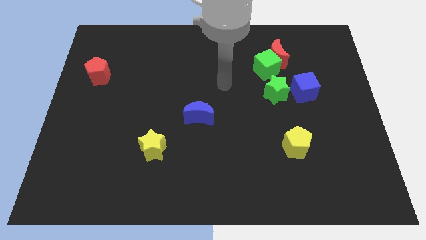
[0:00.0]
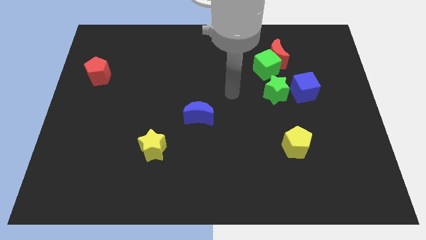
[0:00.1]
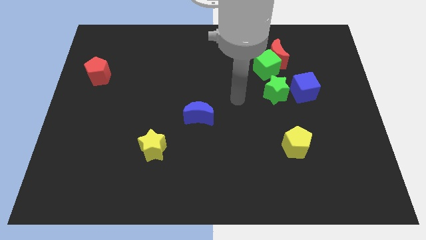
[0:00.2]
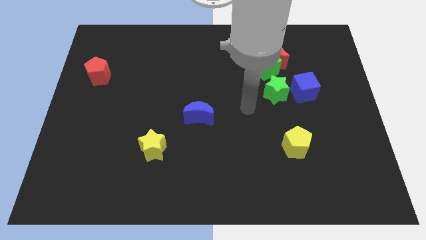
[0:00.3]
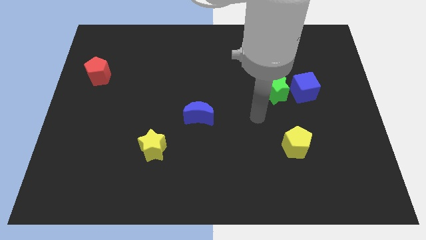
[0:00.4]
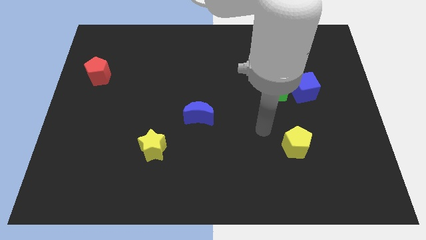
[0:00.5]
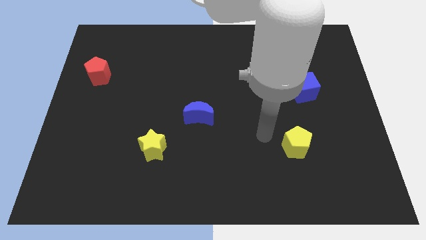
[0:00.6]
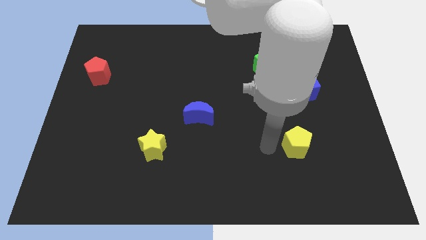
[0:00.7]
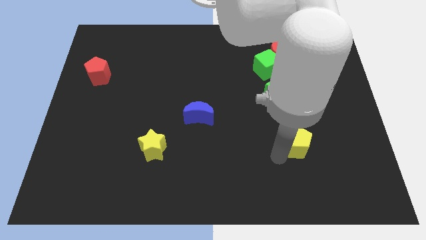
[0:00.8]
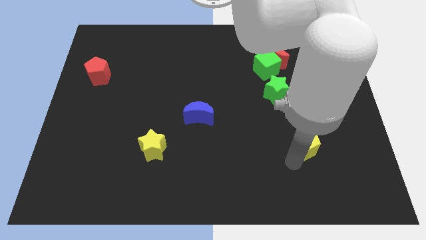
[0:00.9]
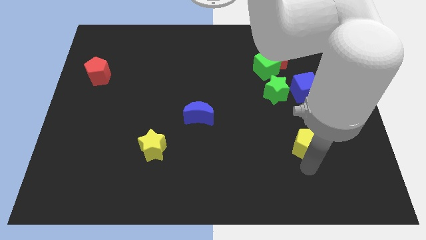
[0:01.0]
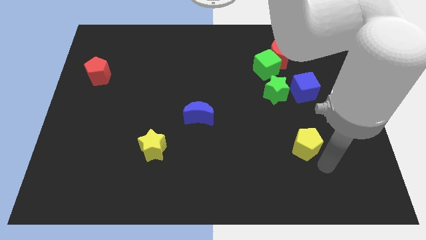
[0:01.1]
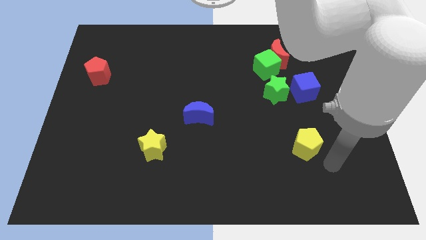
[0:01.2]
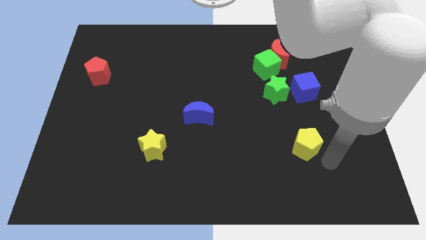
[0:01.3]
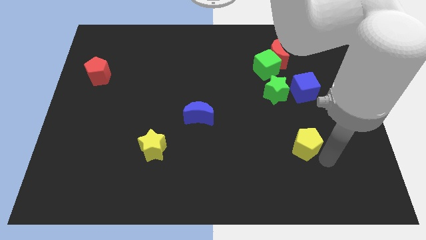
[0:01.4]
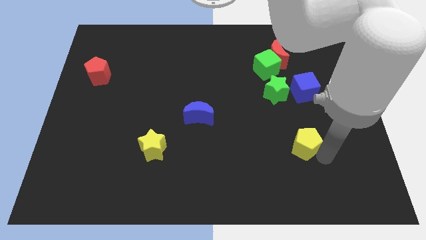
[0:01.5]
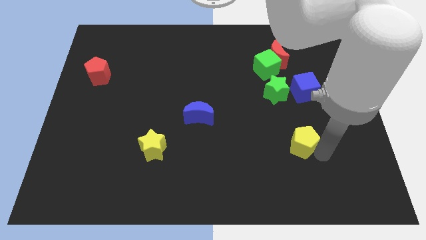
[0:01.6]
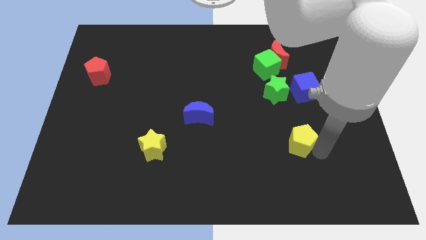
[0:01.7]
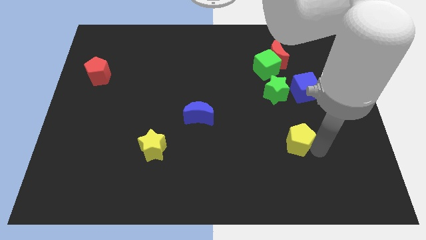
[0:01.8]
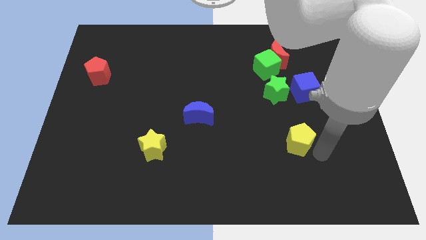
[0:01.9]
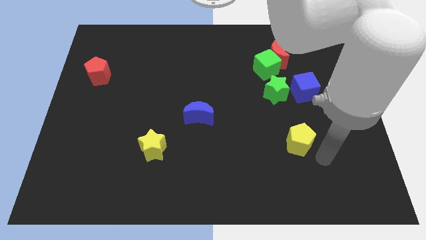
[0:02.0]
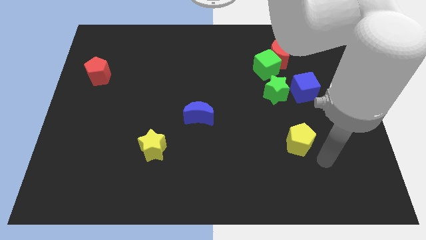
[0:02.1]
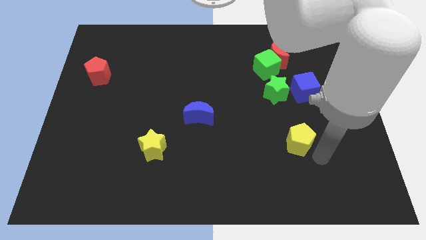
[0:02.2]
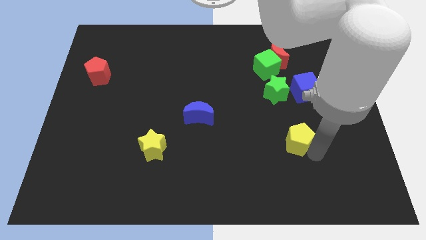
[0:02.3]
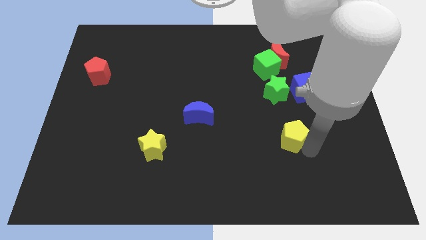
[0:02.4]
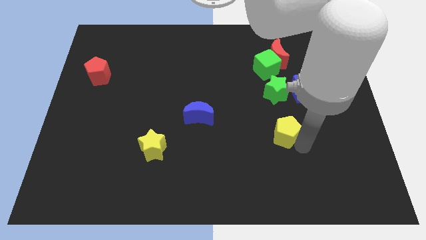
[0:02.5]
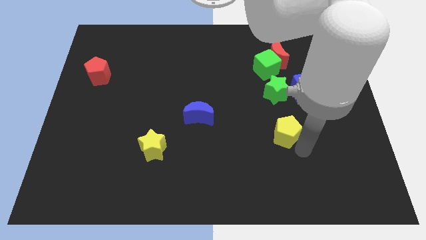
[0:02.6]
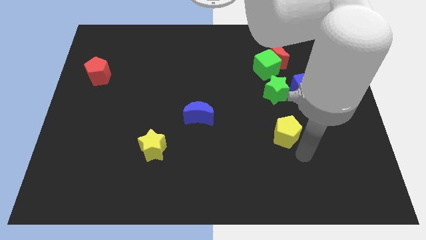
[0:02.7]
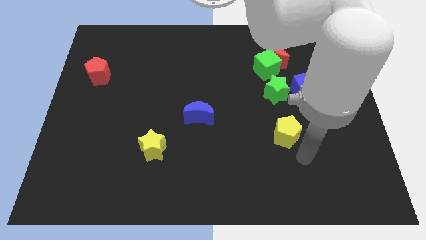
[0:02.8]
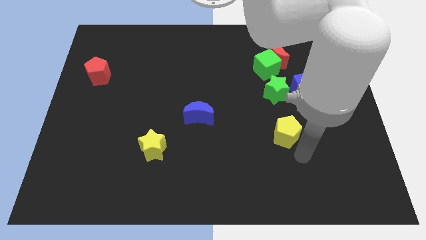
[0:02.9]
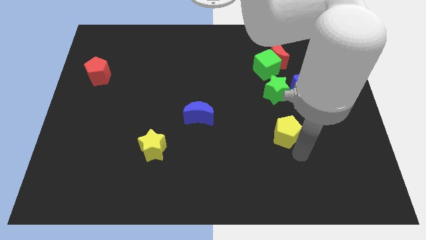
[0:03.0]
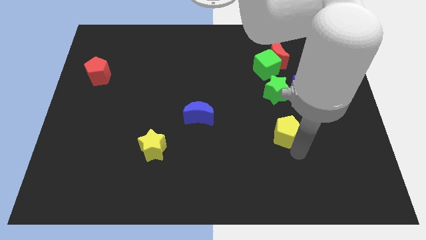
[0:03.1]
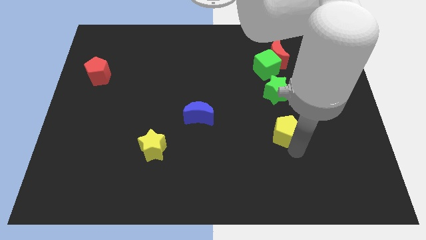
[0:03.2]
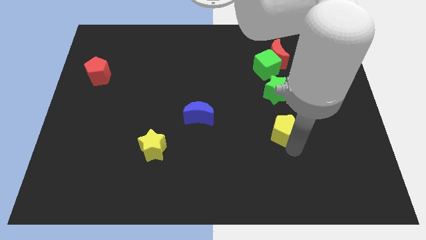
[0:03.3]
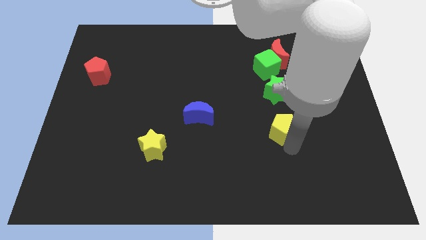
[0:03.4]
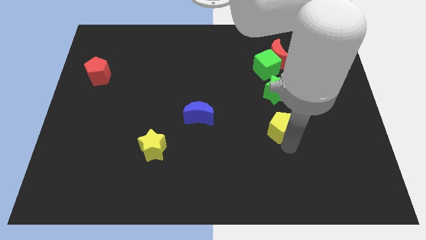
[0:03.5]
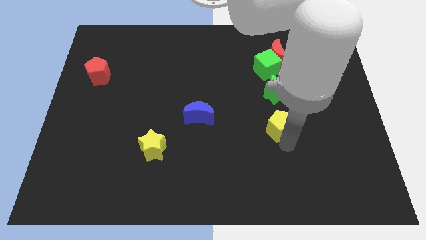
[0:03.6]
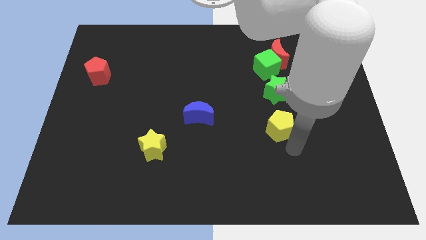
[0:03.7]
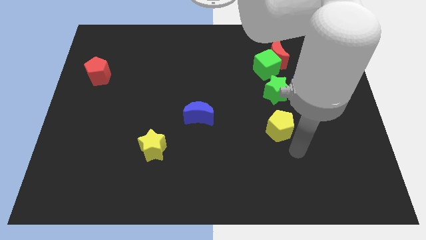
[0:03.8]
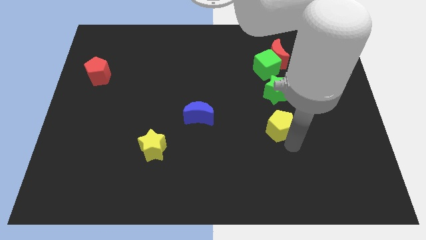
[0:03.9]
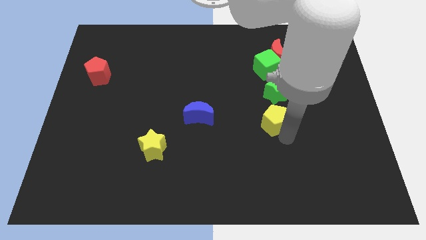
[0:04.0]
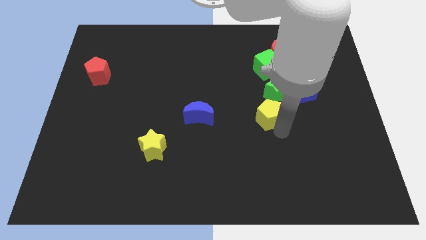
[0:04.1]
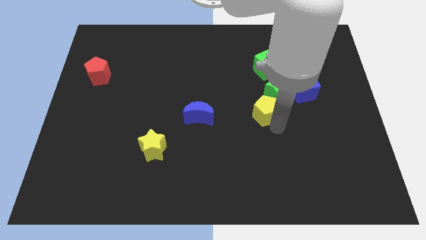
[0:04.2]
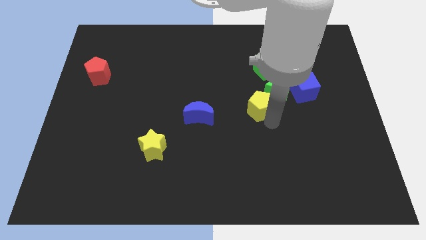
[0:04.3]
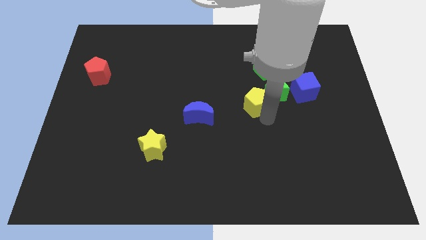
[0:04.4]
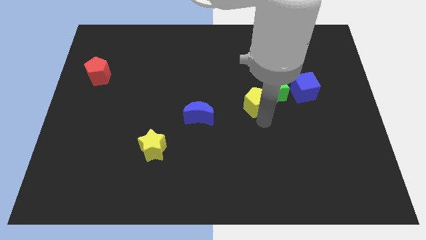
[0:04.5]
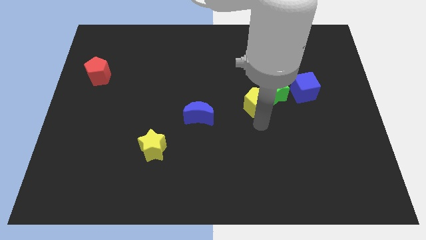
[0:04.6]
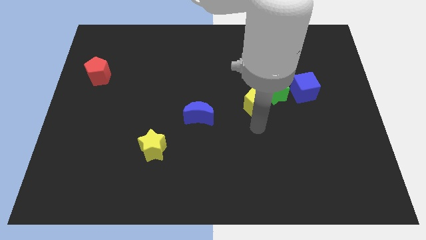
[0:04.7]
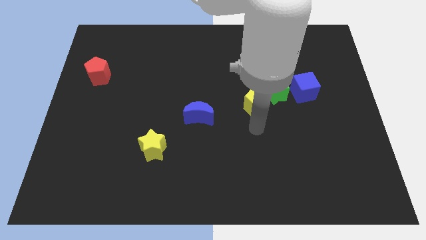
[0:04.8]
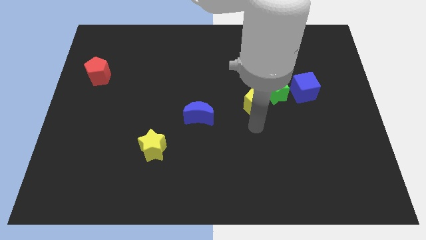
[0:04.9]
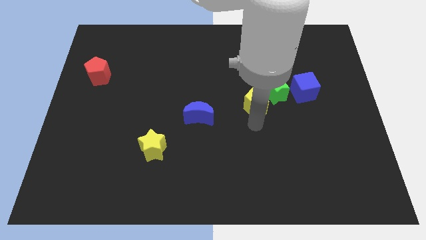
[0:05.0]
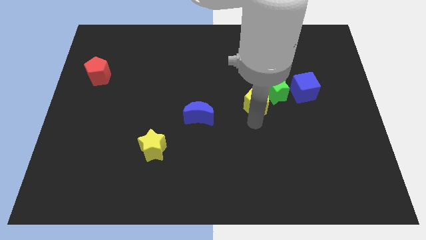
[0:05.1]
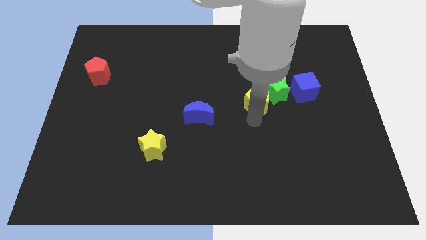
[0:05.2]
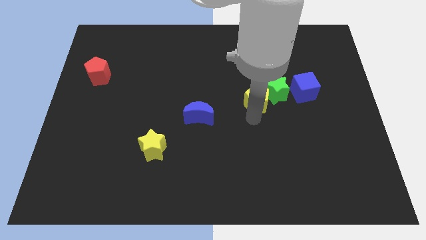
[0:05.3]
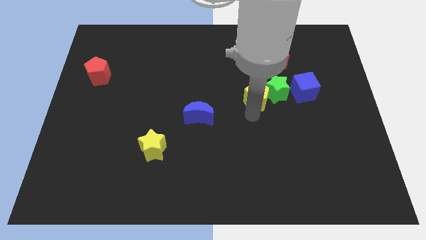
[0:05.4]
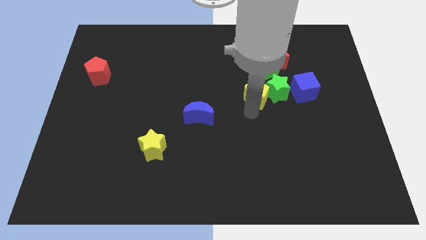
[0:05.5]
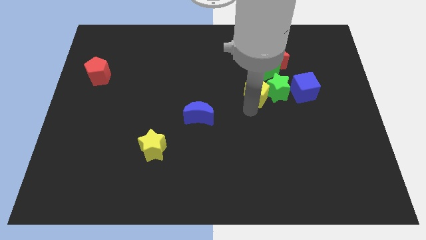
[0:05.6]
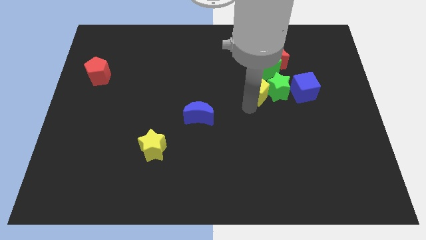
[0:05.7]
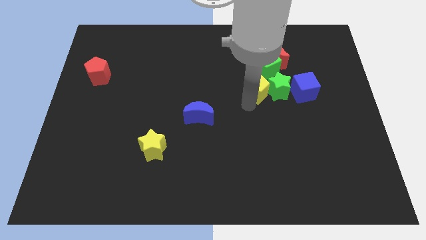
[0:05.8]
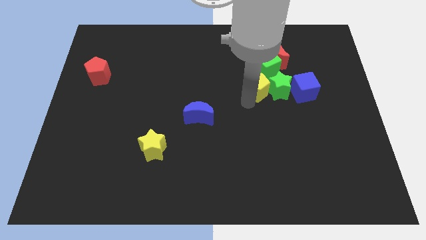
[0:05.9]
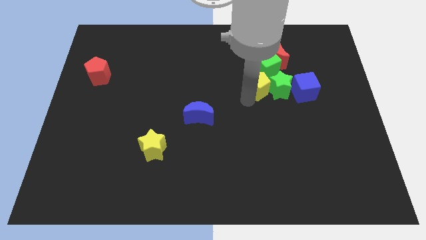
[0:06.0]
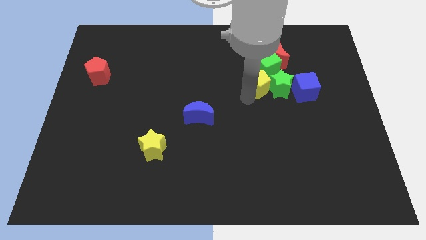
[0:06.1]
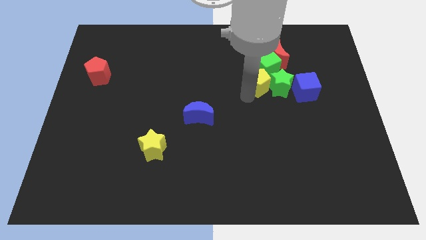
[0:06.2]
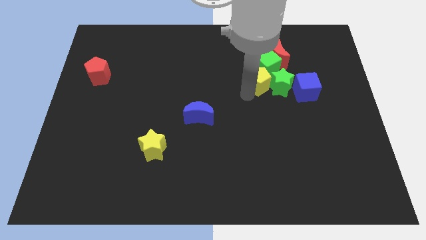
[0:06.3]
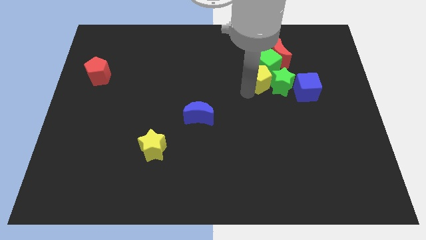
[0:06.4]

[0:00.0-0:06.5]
move the yellow pentagon next to the green cube

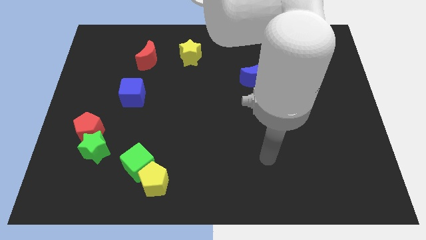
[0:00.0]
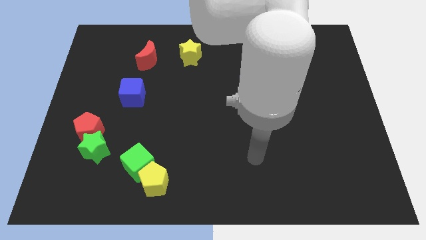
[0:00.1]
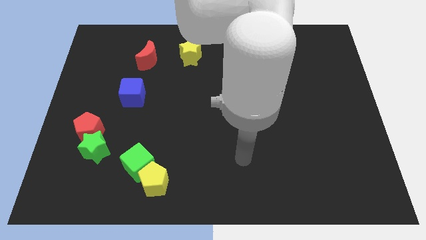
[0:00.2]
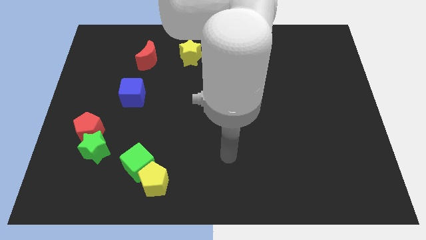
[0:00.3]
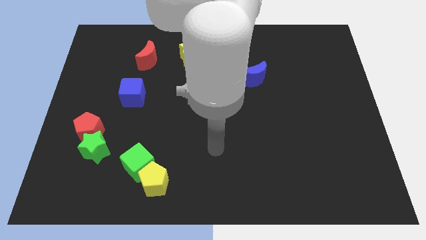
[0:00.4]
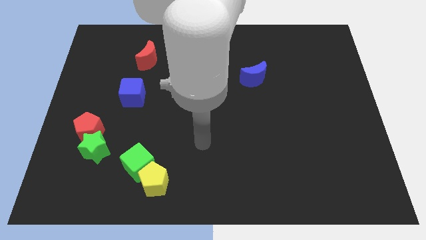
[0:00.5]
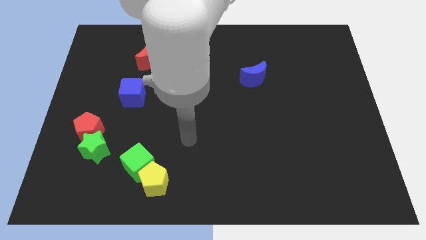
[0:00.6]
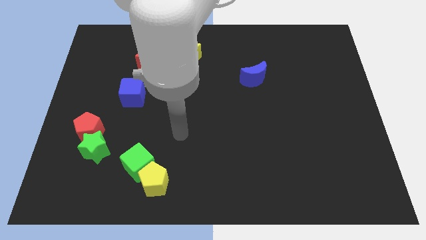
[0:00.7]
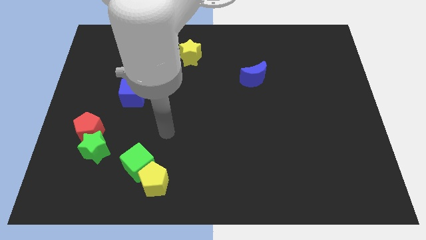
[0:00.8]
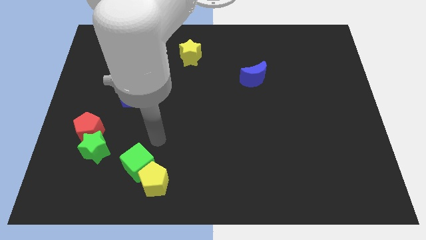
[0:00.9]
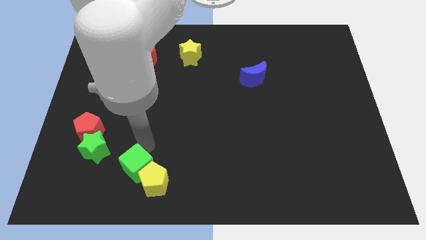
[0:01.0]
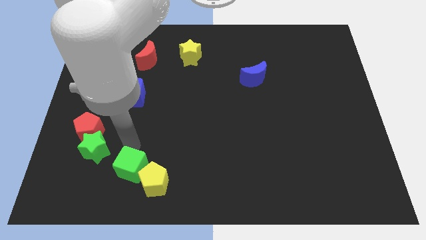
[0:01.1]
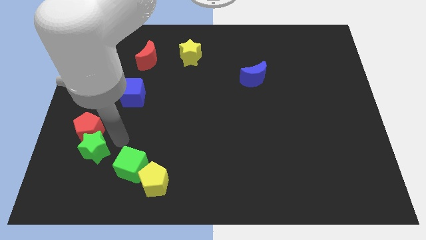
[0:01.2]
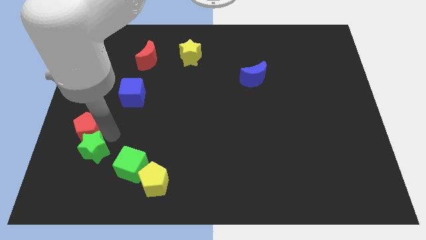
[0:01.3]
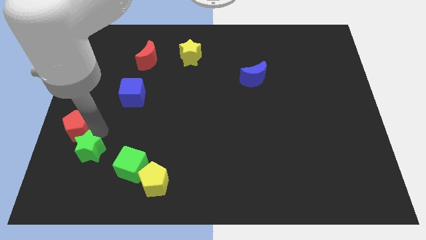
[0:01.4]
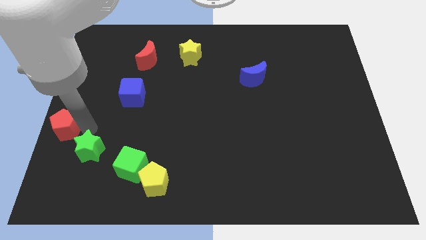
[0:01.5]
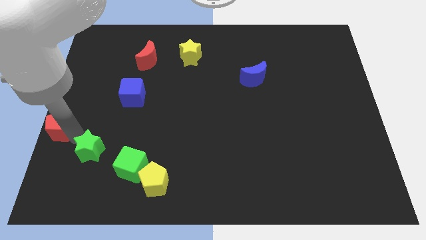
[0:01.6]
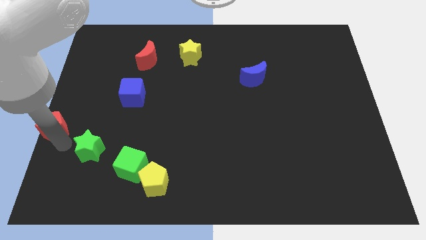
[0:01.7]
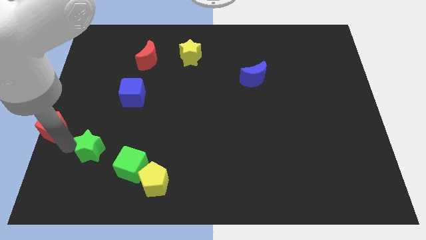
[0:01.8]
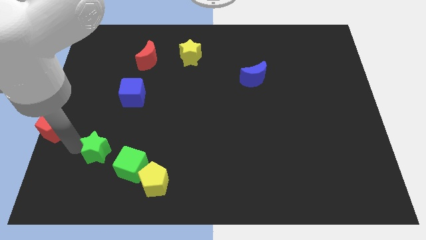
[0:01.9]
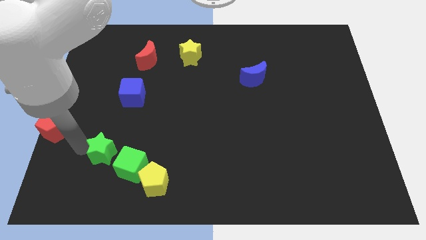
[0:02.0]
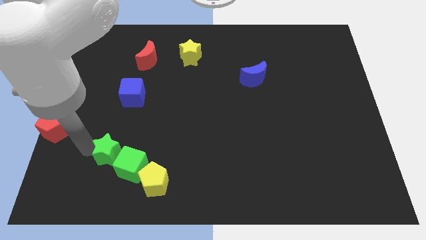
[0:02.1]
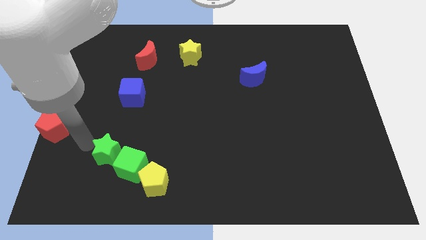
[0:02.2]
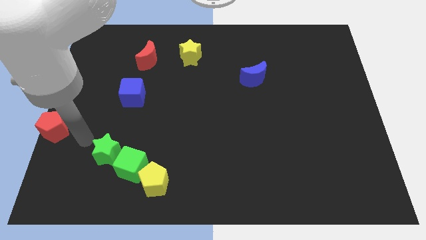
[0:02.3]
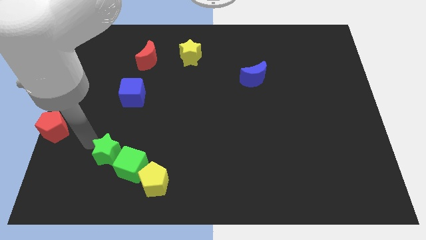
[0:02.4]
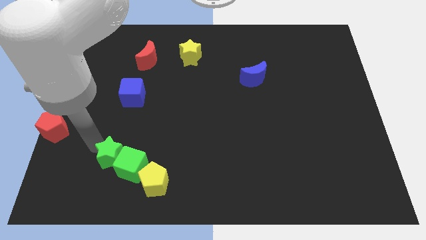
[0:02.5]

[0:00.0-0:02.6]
slide the green star to the green cube

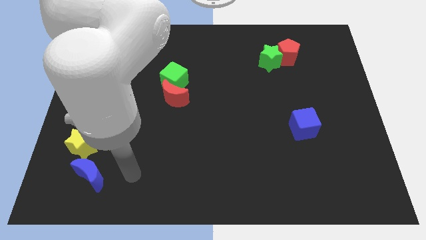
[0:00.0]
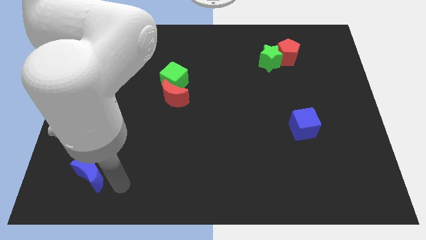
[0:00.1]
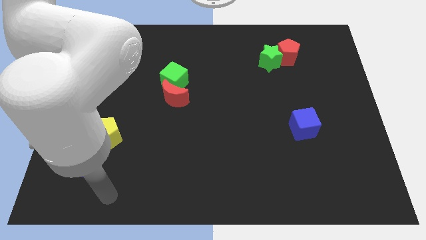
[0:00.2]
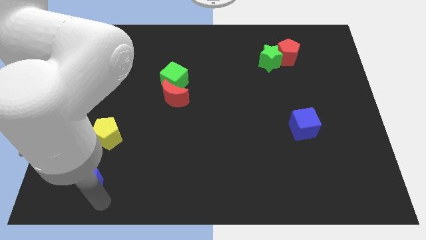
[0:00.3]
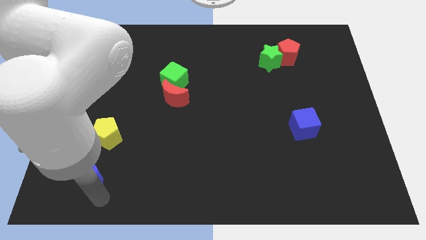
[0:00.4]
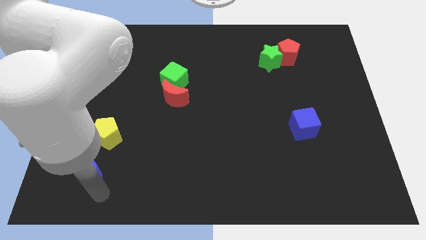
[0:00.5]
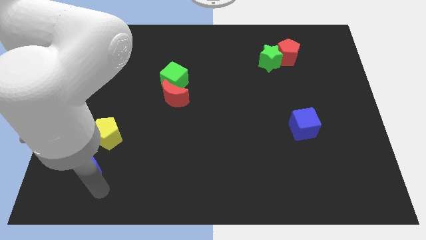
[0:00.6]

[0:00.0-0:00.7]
slide the blue moon to the yellow star
